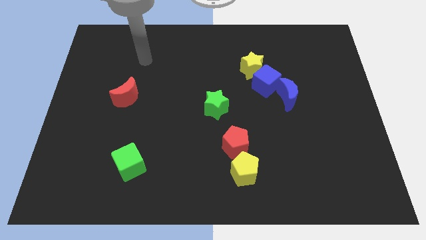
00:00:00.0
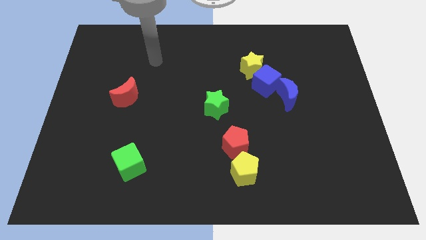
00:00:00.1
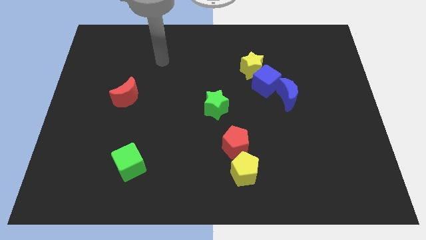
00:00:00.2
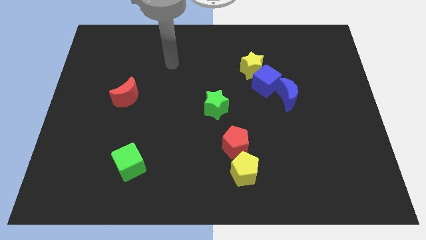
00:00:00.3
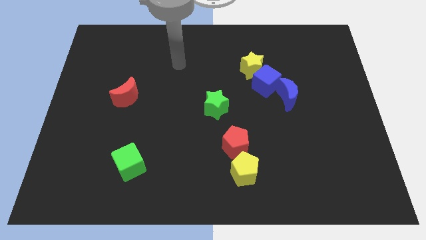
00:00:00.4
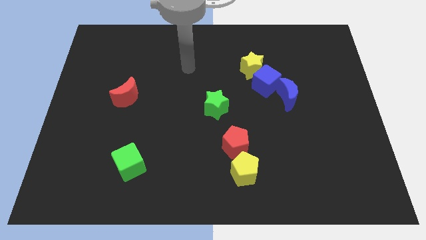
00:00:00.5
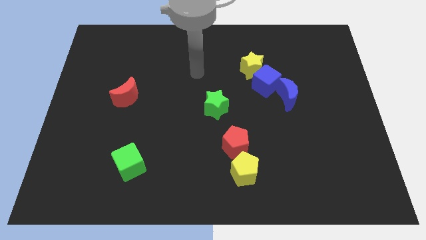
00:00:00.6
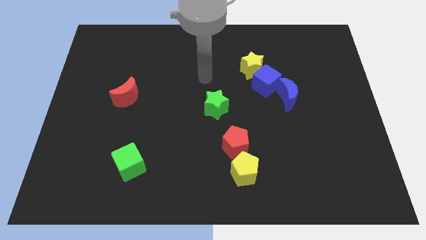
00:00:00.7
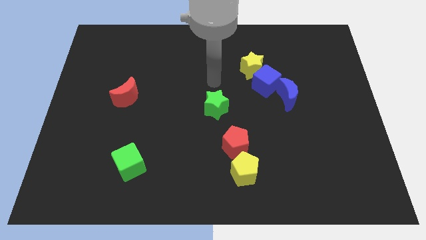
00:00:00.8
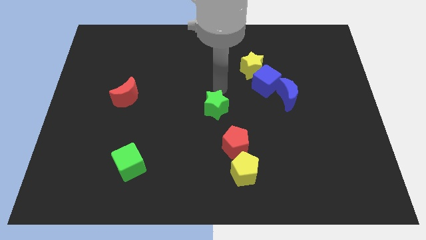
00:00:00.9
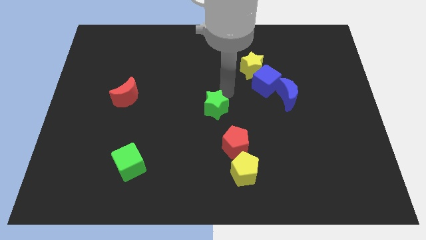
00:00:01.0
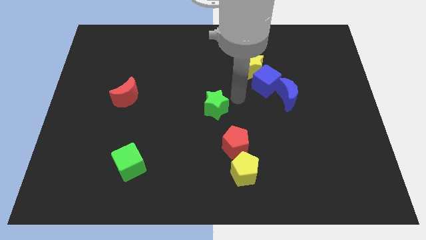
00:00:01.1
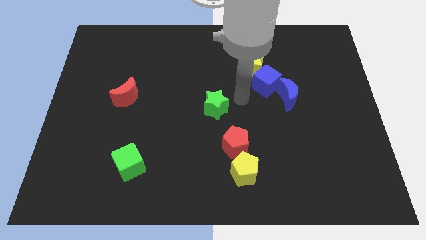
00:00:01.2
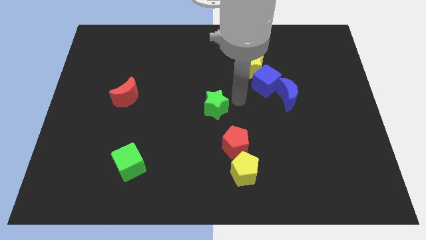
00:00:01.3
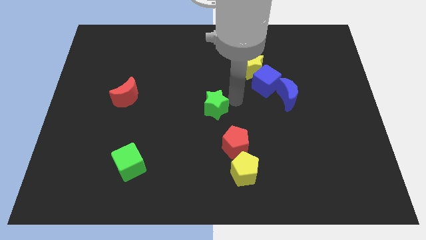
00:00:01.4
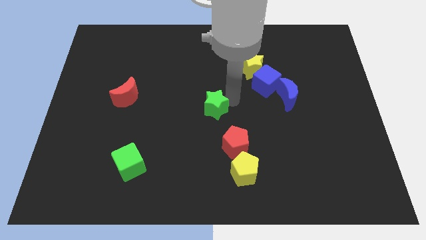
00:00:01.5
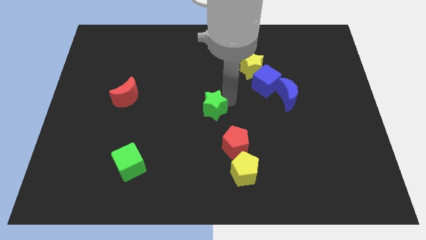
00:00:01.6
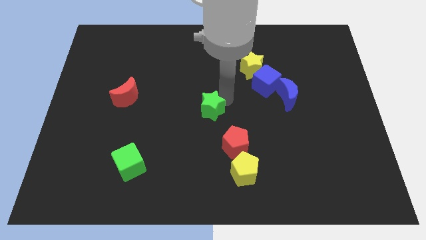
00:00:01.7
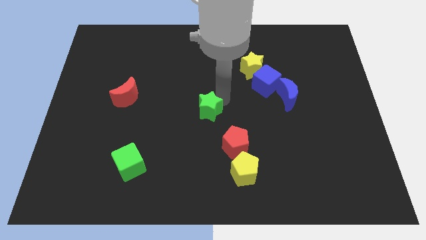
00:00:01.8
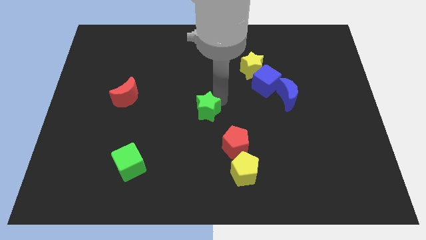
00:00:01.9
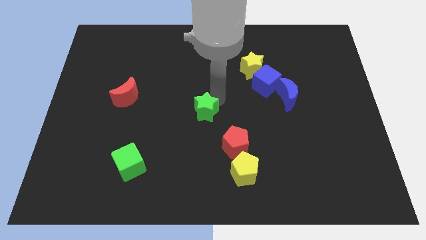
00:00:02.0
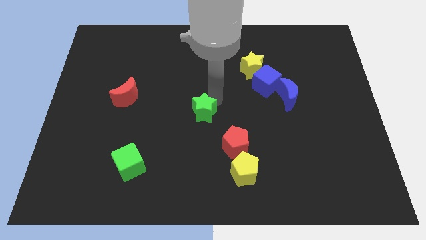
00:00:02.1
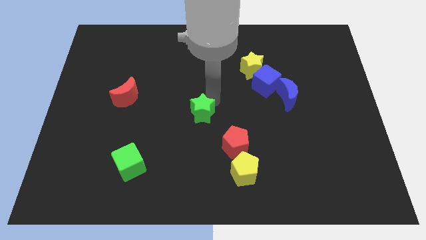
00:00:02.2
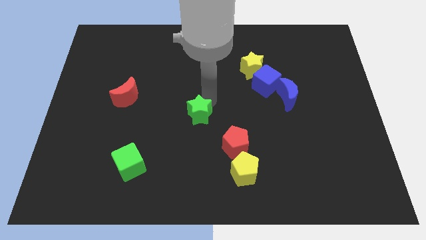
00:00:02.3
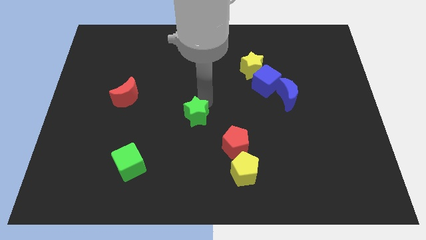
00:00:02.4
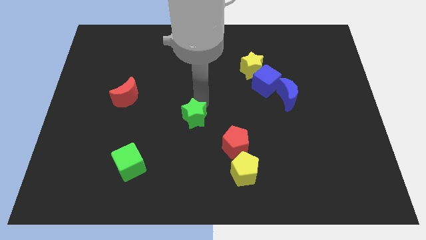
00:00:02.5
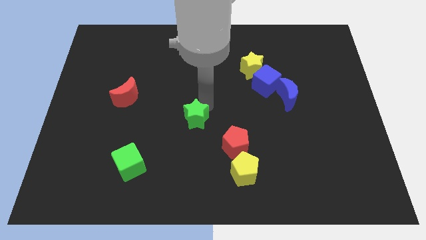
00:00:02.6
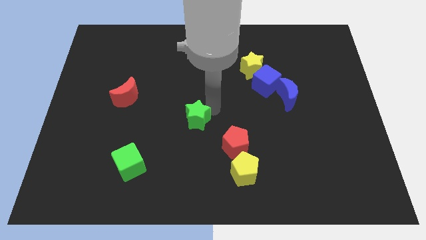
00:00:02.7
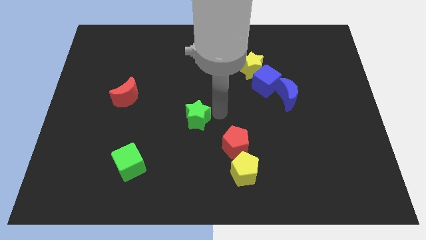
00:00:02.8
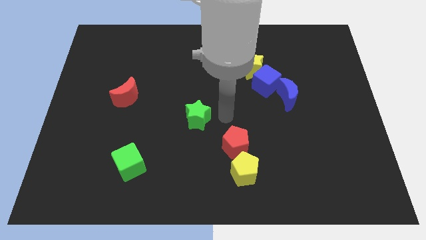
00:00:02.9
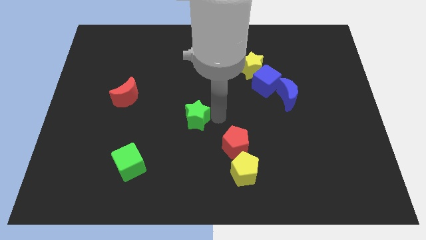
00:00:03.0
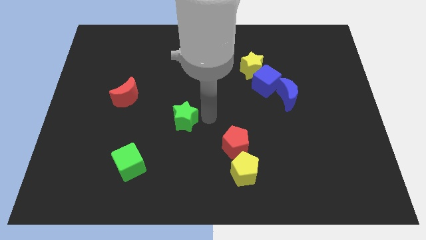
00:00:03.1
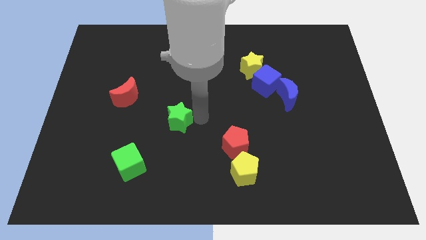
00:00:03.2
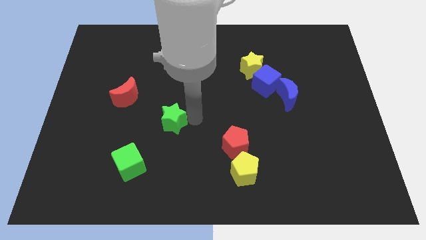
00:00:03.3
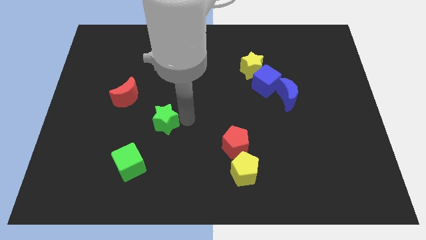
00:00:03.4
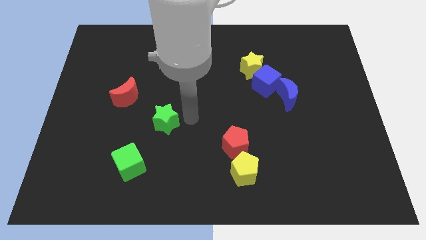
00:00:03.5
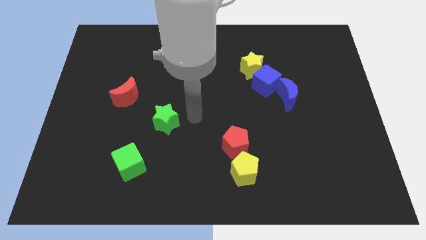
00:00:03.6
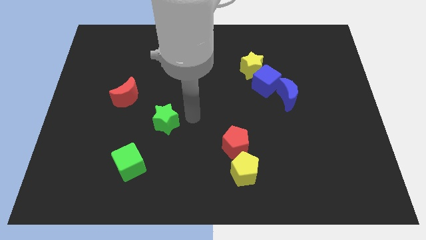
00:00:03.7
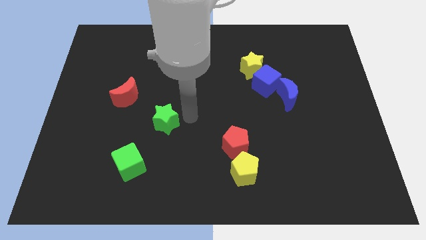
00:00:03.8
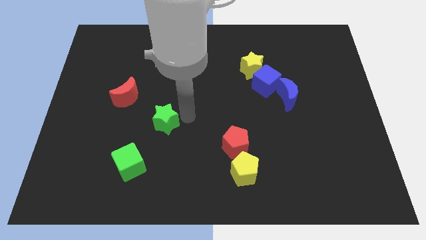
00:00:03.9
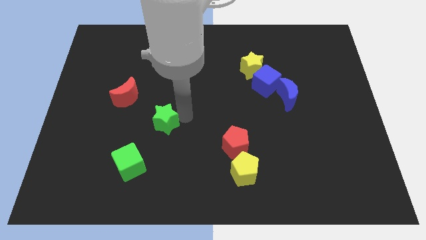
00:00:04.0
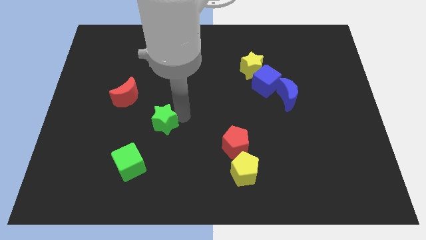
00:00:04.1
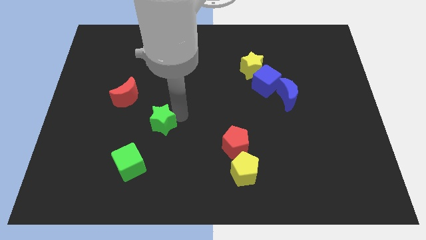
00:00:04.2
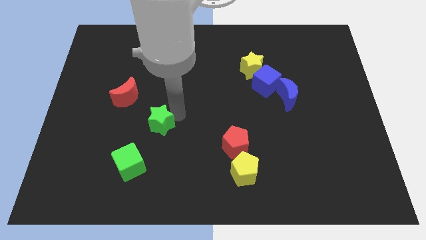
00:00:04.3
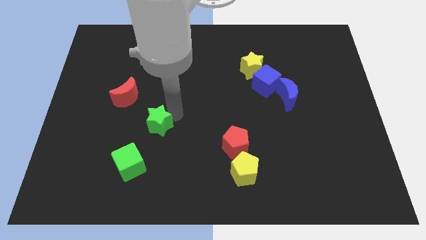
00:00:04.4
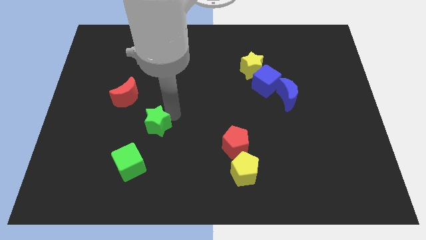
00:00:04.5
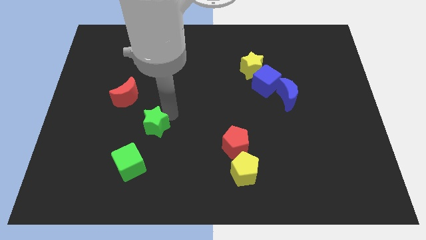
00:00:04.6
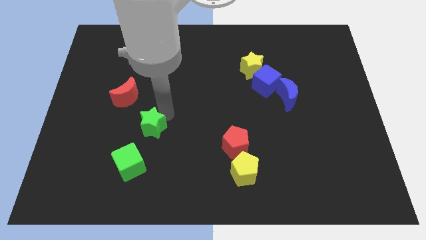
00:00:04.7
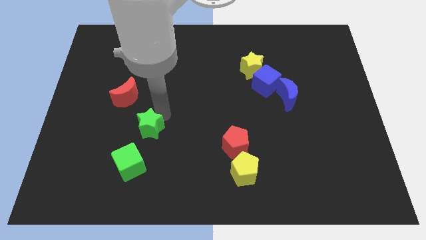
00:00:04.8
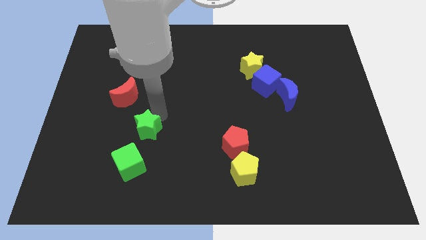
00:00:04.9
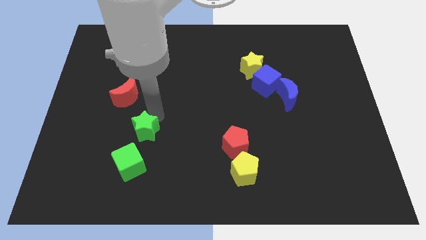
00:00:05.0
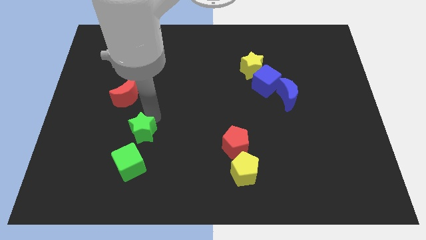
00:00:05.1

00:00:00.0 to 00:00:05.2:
put the green star to the bottom side of the red moon

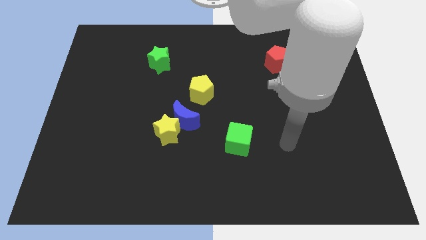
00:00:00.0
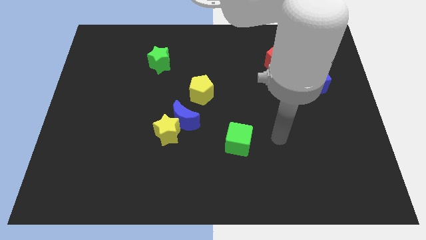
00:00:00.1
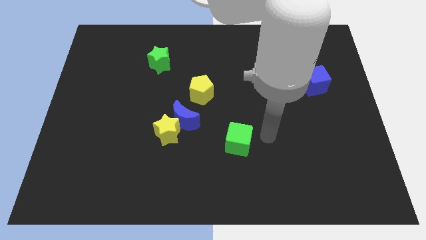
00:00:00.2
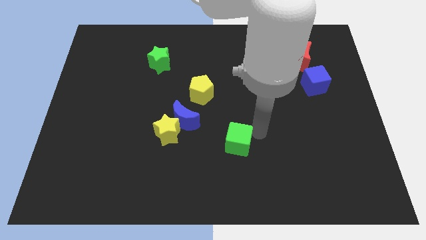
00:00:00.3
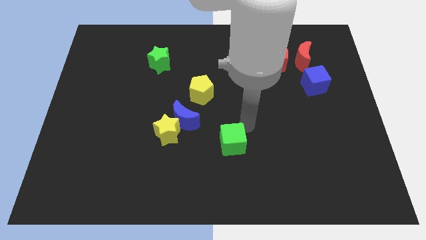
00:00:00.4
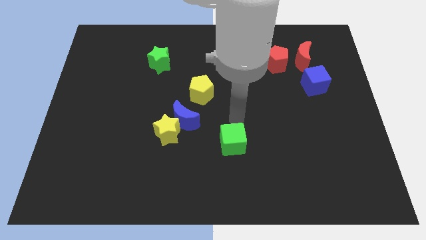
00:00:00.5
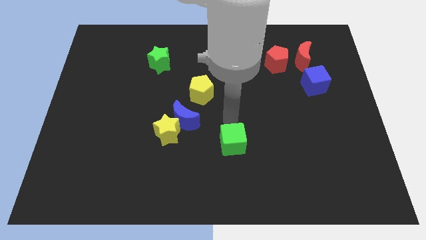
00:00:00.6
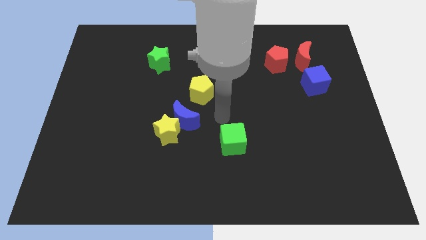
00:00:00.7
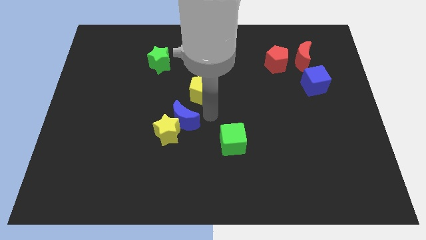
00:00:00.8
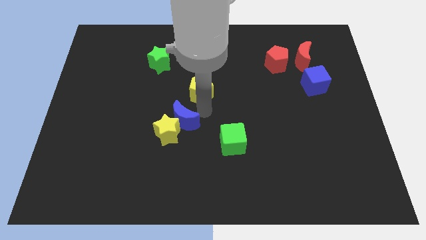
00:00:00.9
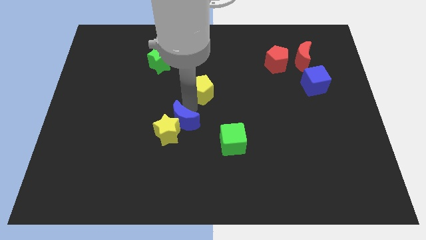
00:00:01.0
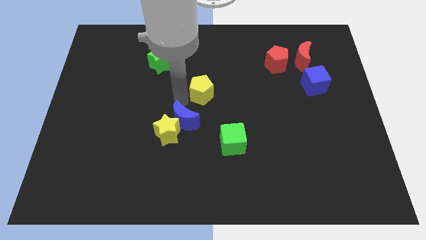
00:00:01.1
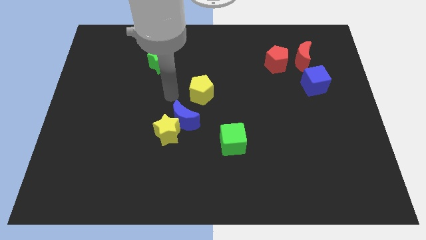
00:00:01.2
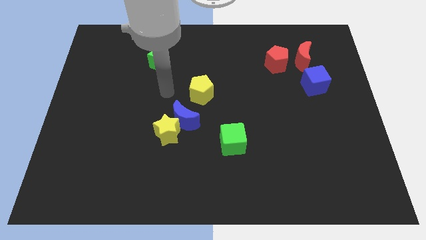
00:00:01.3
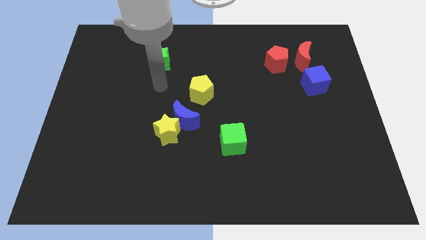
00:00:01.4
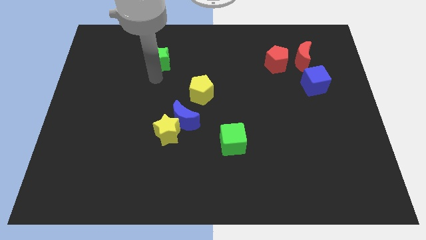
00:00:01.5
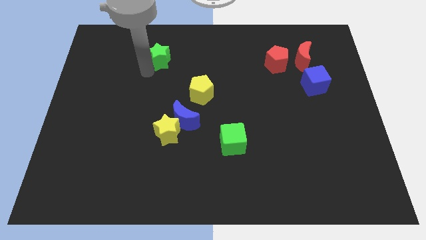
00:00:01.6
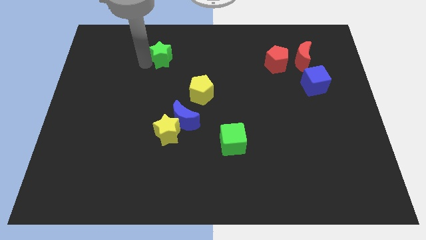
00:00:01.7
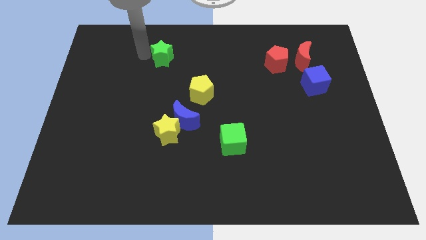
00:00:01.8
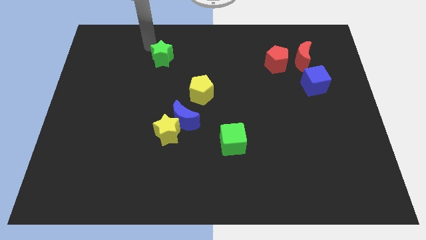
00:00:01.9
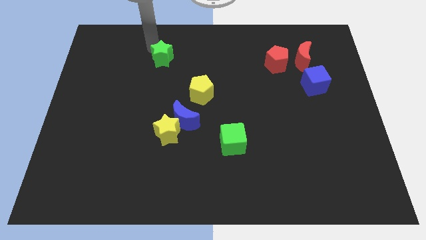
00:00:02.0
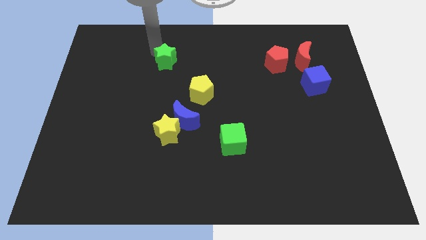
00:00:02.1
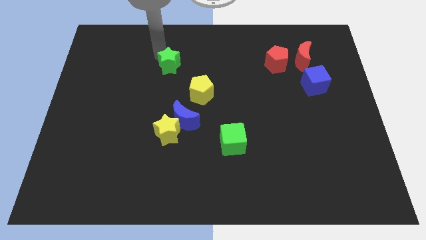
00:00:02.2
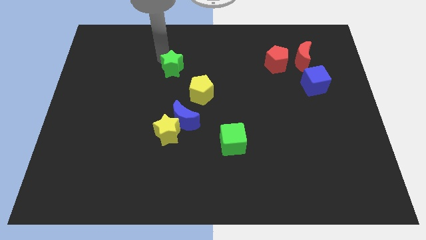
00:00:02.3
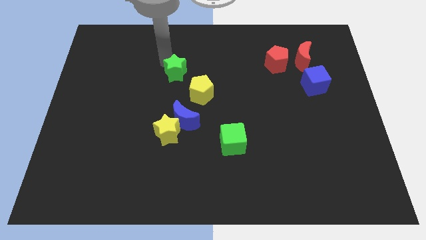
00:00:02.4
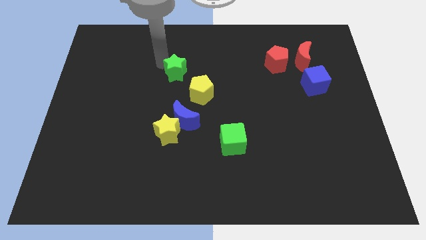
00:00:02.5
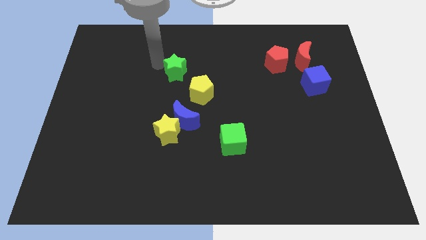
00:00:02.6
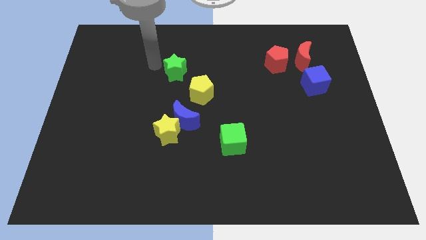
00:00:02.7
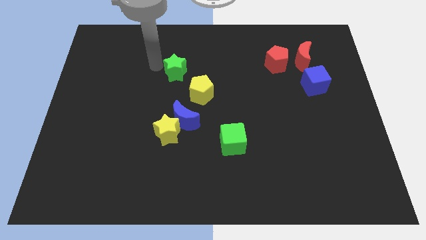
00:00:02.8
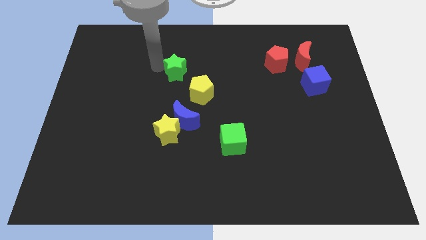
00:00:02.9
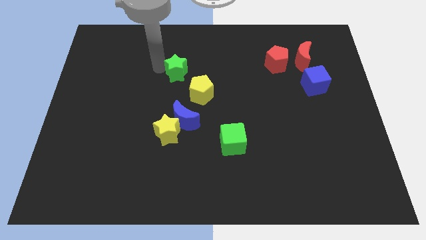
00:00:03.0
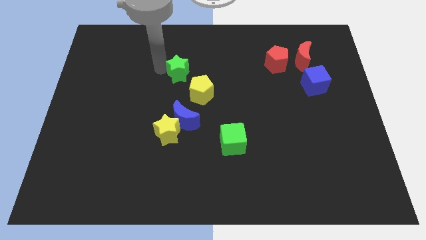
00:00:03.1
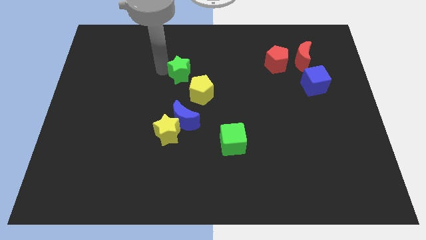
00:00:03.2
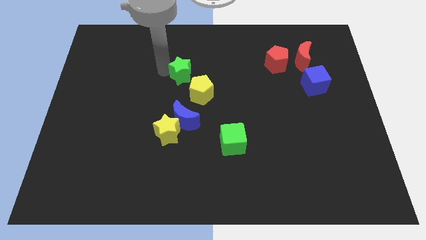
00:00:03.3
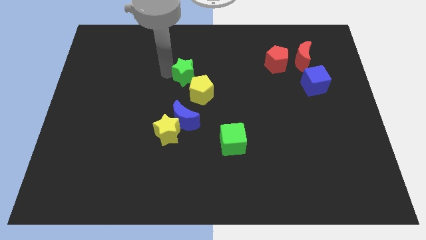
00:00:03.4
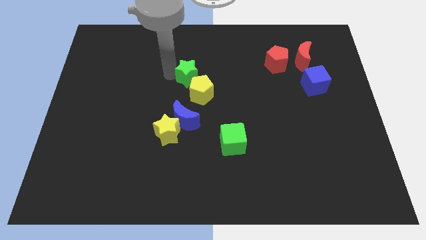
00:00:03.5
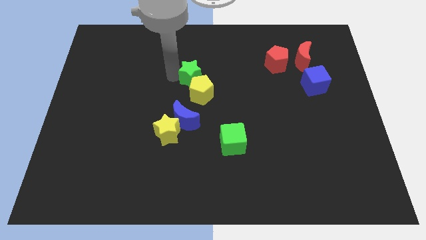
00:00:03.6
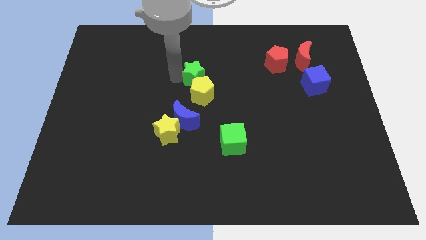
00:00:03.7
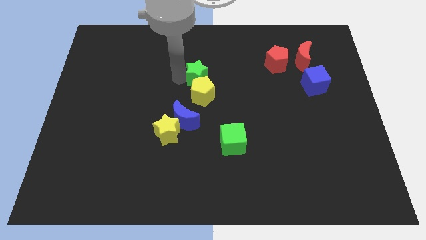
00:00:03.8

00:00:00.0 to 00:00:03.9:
slide the green star to the top right side of the yellow pentagon
